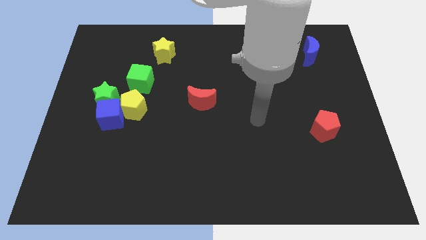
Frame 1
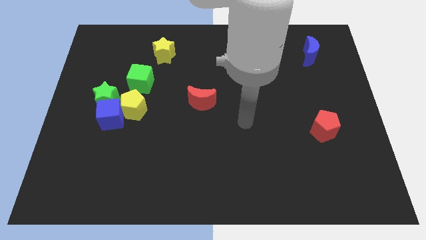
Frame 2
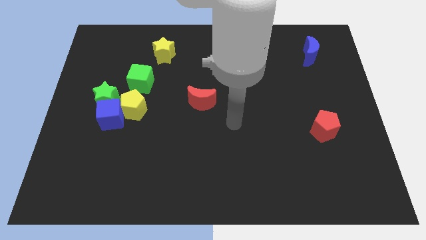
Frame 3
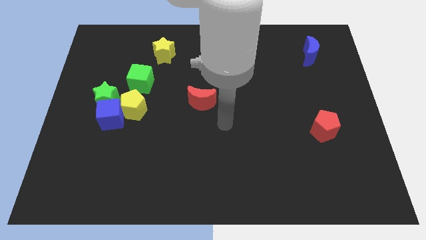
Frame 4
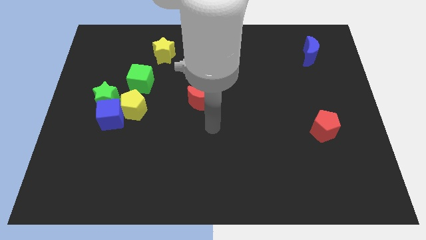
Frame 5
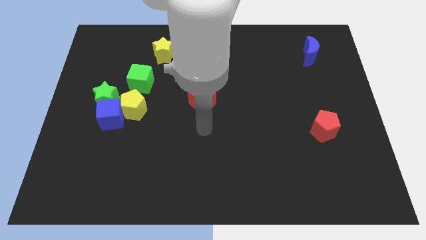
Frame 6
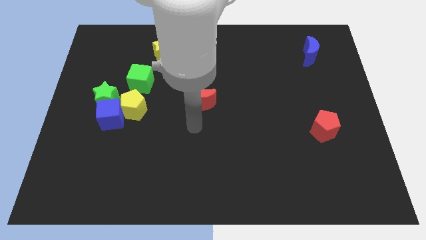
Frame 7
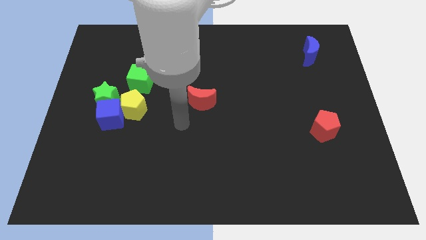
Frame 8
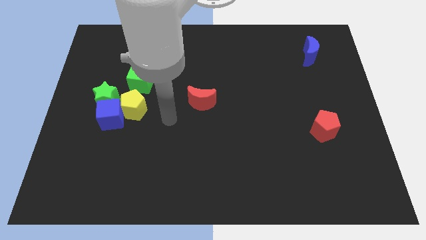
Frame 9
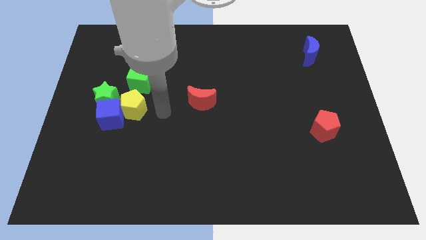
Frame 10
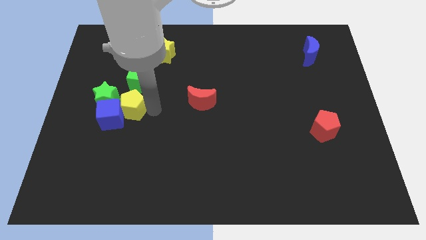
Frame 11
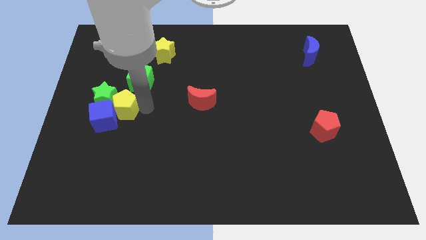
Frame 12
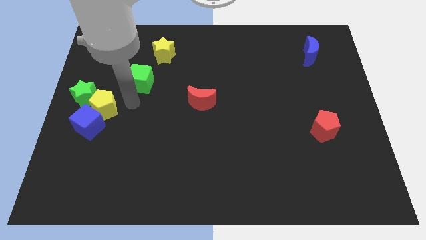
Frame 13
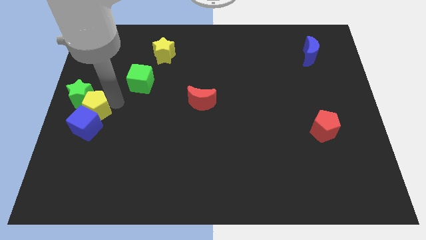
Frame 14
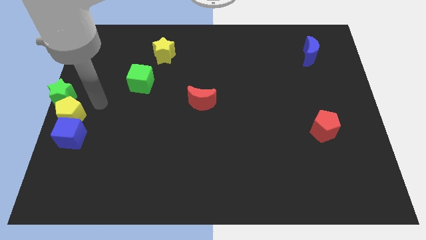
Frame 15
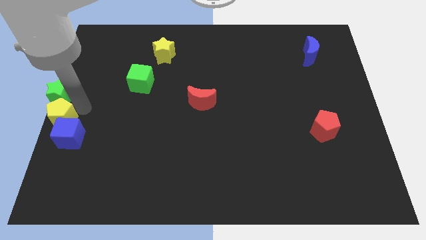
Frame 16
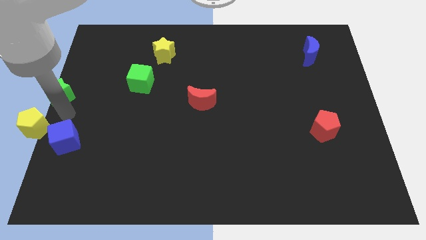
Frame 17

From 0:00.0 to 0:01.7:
separate the blue cube from the yellow pentagon and green star

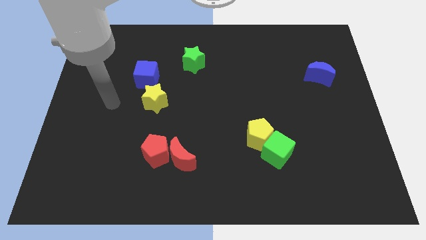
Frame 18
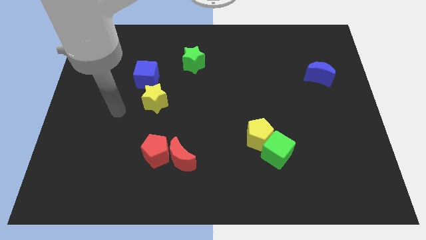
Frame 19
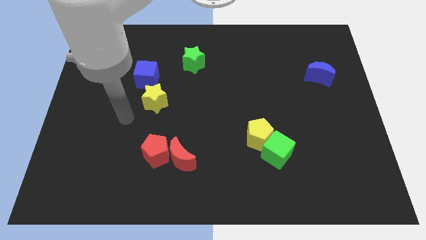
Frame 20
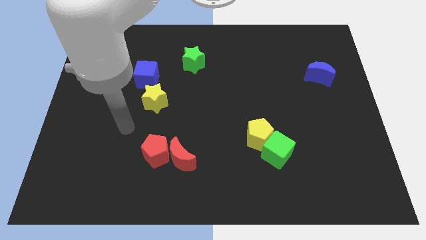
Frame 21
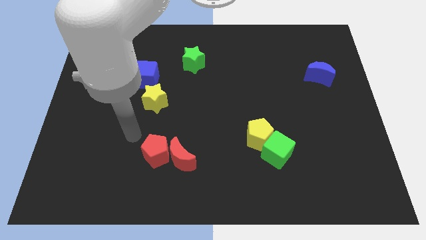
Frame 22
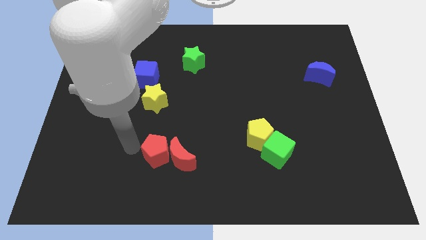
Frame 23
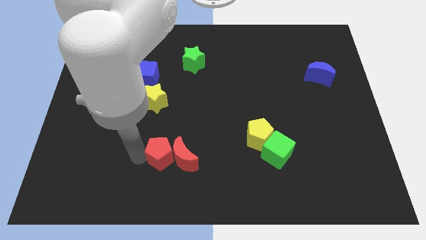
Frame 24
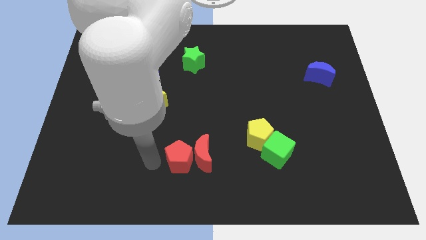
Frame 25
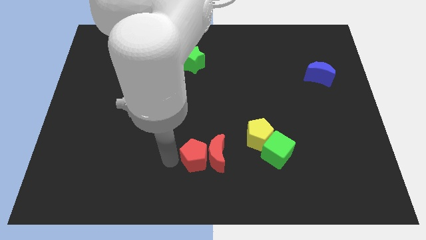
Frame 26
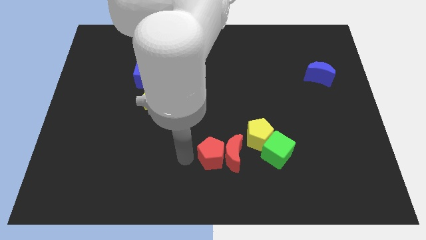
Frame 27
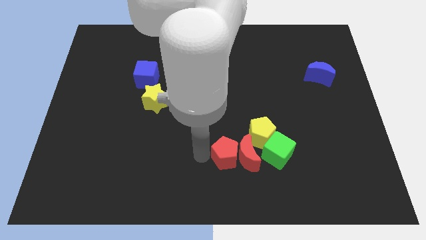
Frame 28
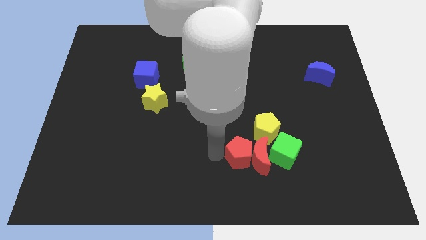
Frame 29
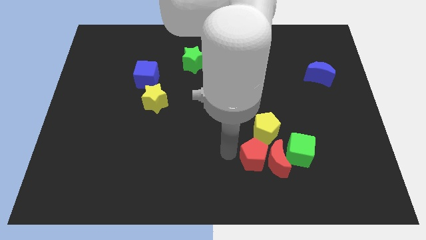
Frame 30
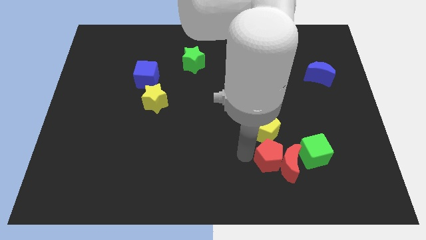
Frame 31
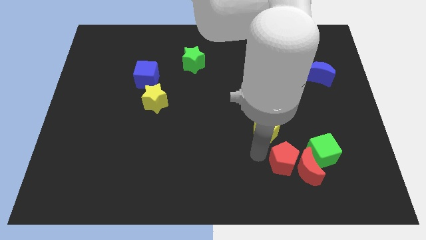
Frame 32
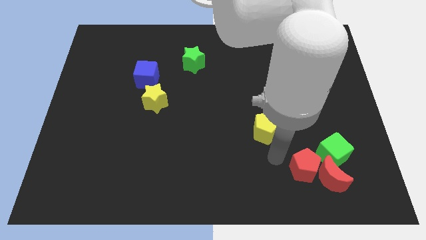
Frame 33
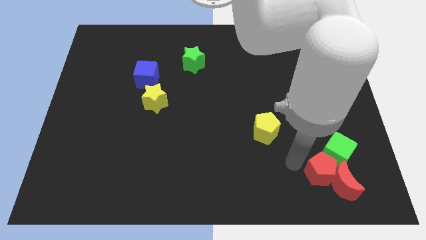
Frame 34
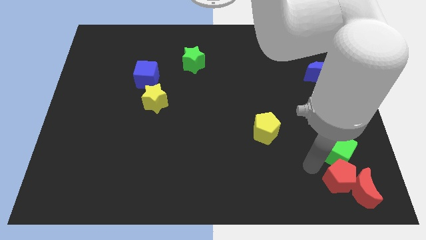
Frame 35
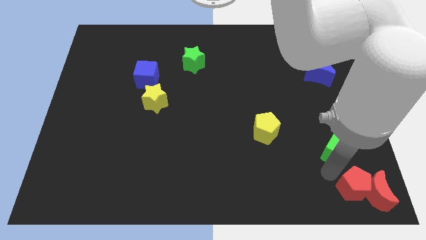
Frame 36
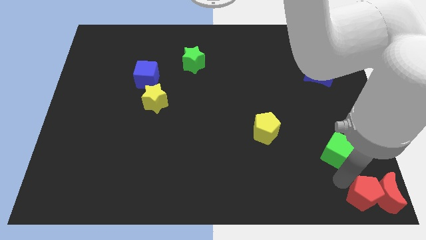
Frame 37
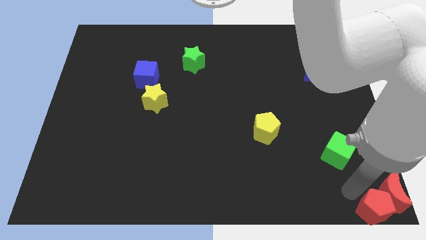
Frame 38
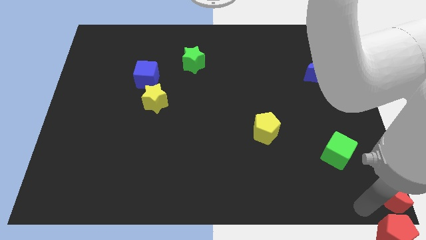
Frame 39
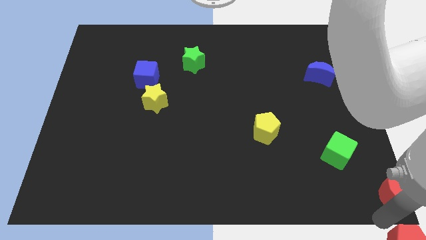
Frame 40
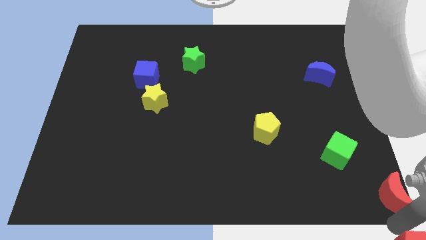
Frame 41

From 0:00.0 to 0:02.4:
pull the red moon apart from the red pentagon

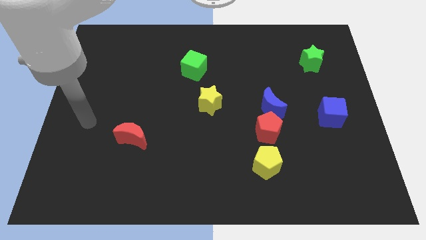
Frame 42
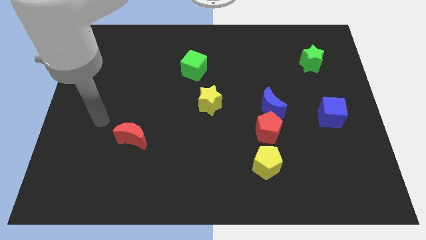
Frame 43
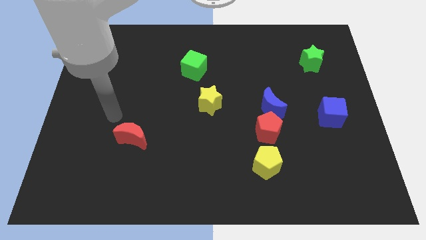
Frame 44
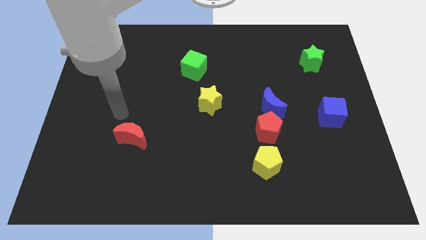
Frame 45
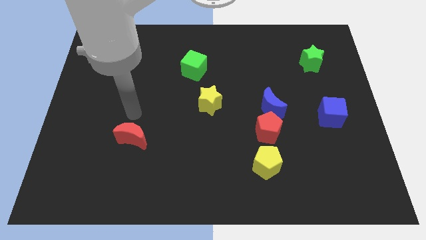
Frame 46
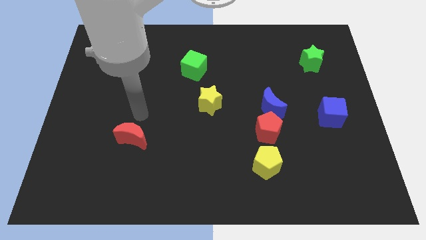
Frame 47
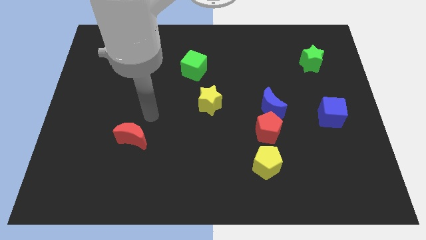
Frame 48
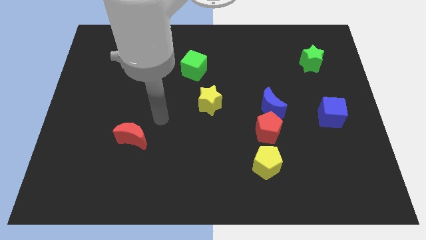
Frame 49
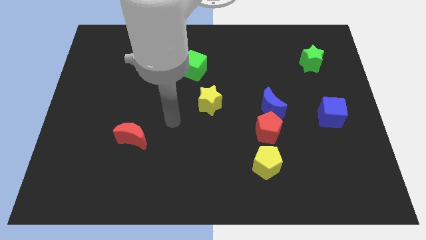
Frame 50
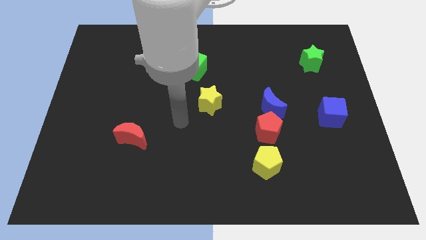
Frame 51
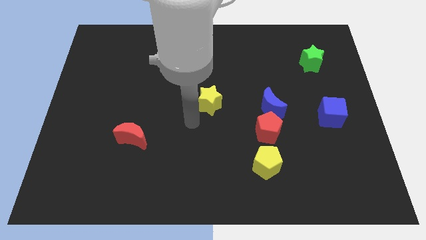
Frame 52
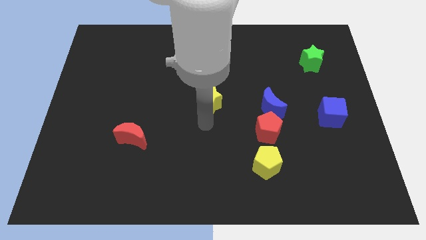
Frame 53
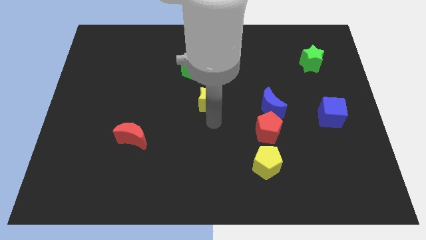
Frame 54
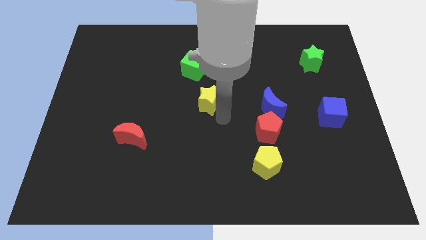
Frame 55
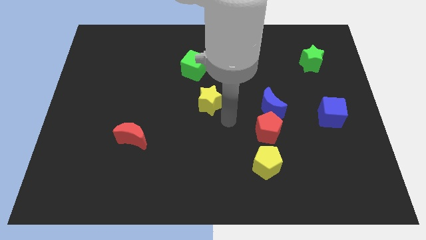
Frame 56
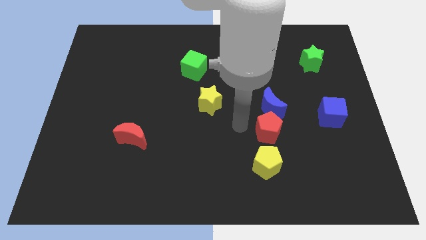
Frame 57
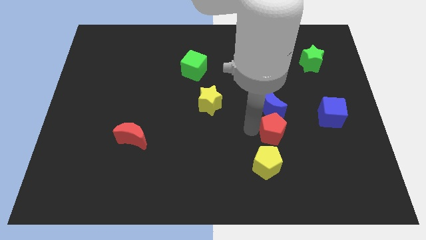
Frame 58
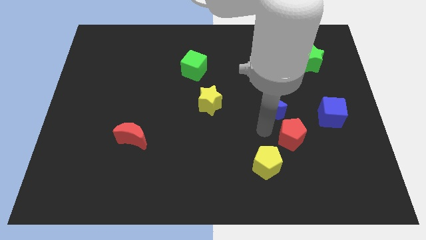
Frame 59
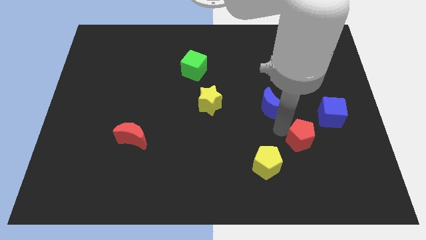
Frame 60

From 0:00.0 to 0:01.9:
move the blue moon away from the red pentagon

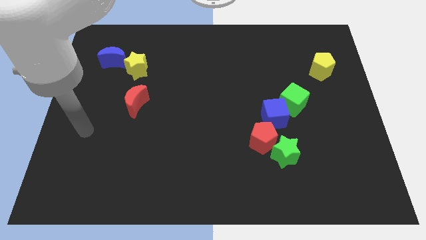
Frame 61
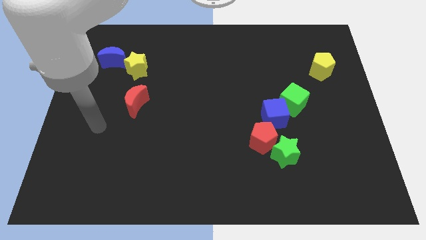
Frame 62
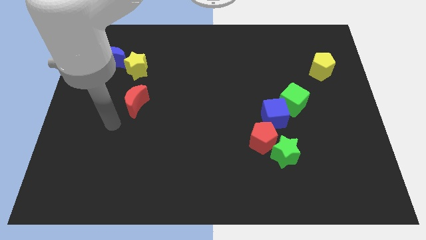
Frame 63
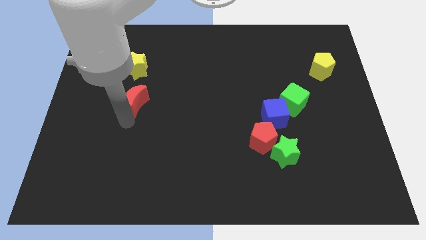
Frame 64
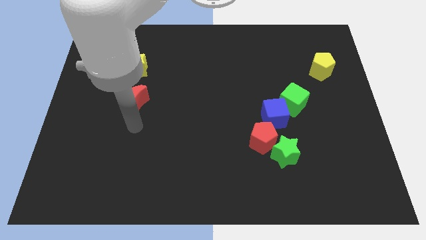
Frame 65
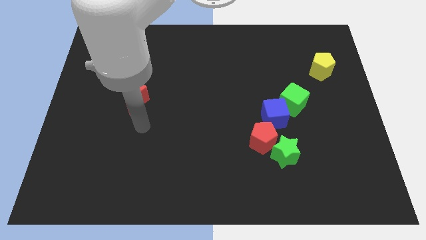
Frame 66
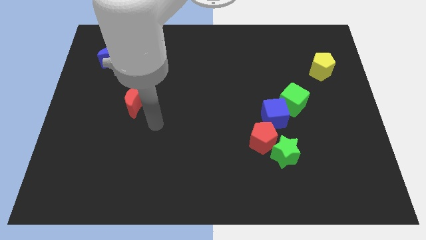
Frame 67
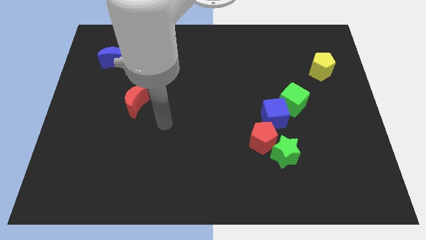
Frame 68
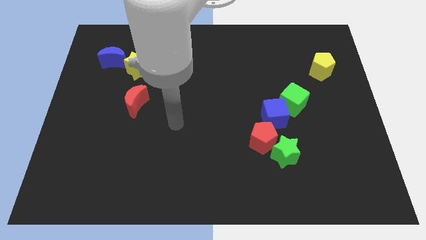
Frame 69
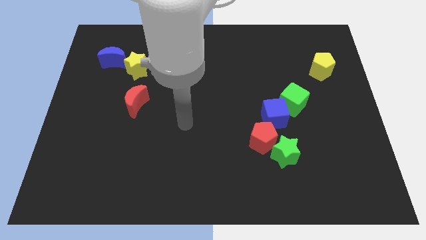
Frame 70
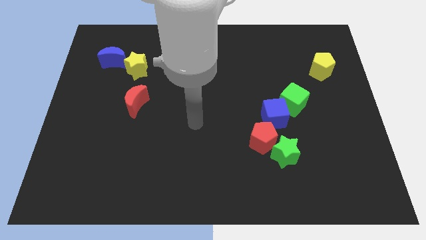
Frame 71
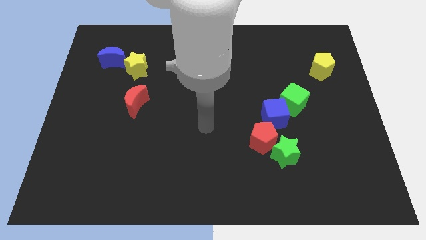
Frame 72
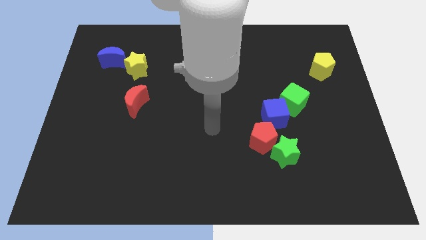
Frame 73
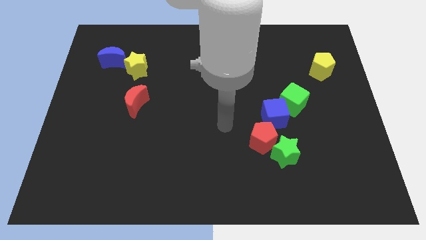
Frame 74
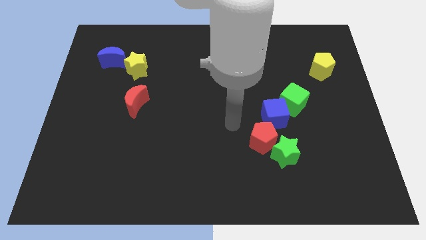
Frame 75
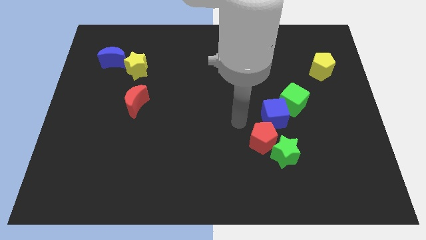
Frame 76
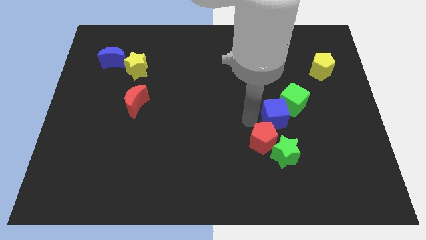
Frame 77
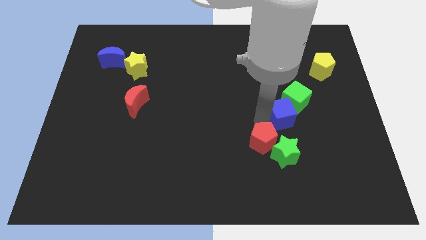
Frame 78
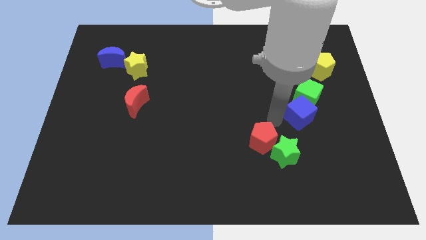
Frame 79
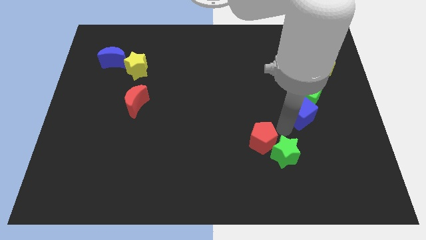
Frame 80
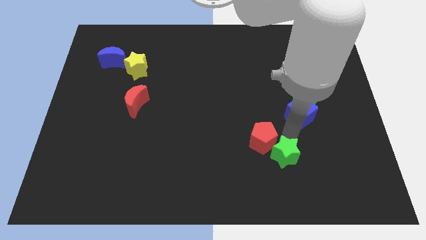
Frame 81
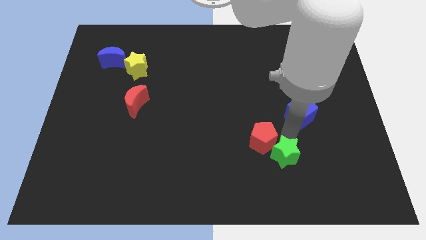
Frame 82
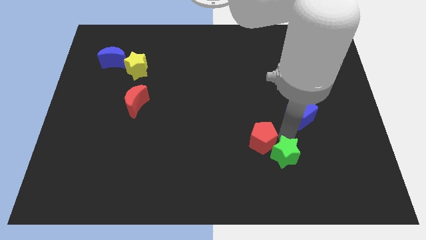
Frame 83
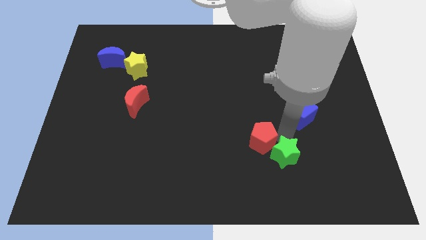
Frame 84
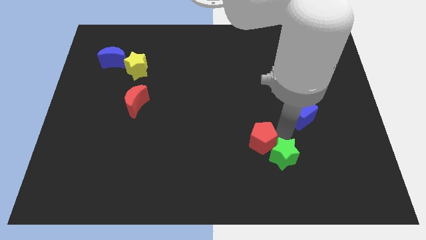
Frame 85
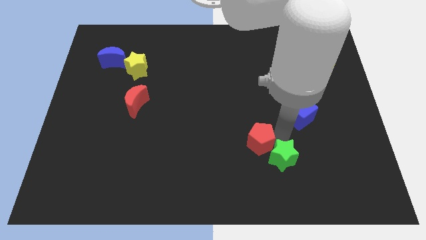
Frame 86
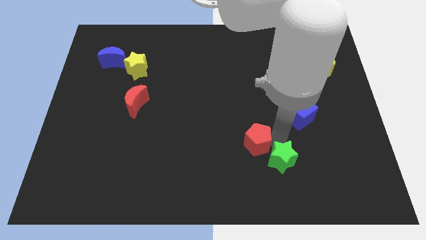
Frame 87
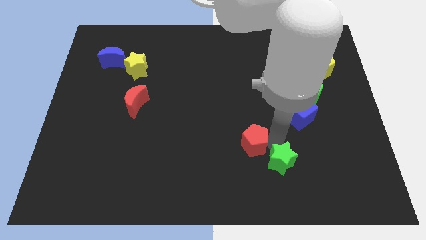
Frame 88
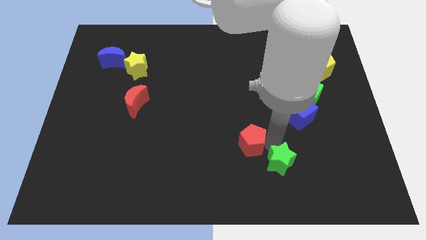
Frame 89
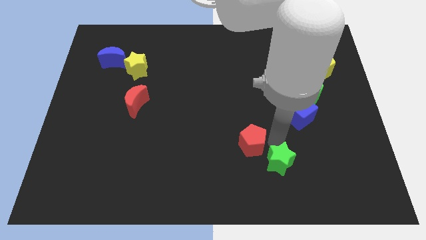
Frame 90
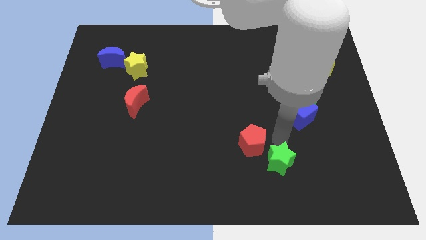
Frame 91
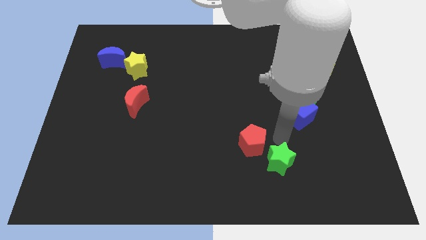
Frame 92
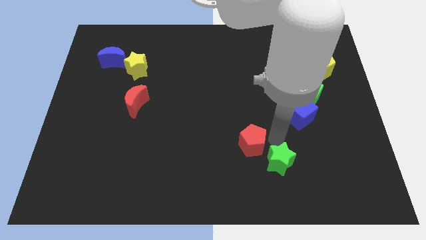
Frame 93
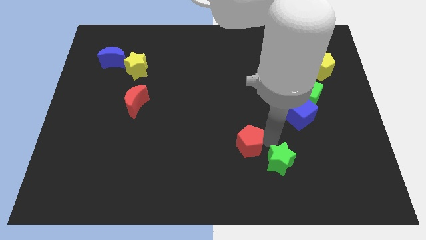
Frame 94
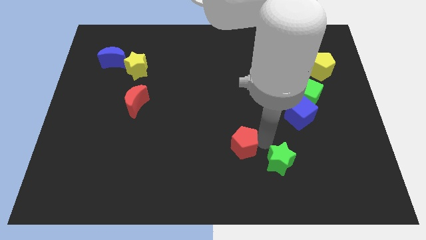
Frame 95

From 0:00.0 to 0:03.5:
separate the red pentagon from the green star and blue cube
